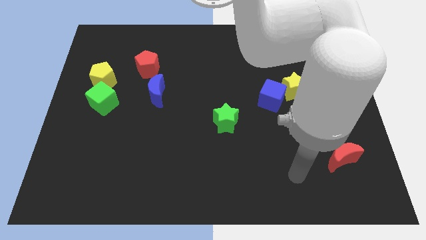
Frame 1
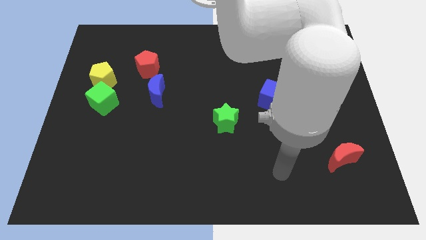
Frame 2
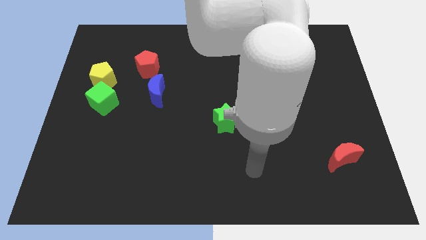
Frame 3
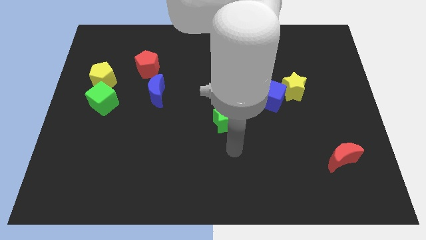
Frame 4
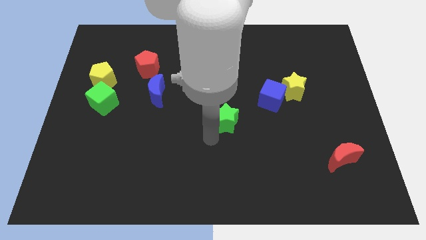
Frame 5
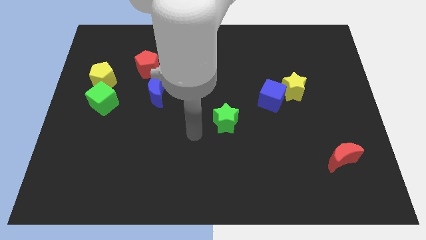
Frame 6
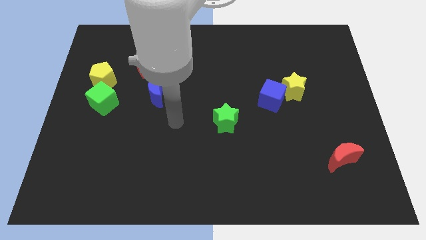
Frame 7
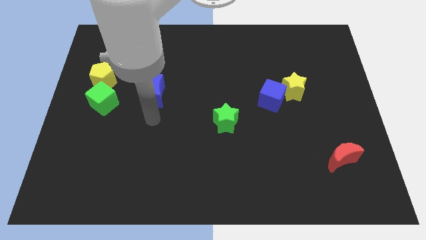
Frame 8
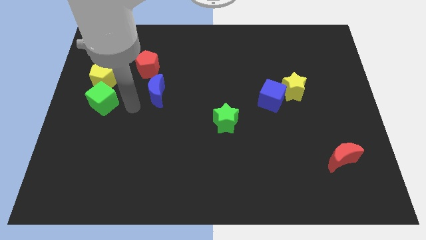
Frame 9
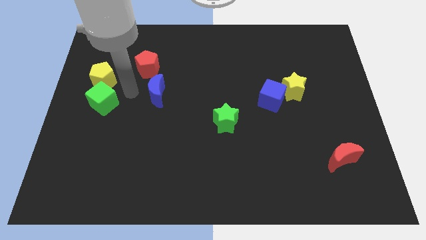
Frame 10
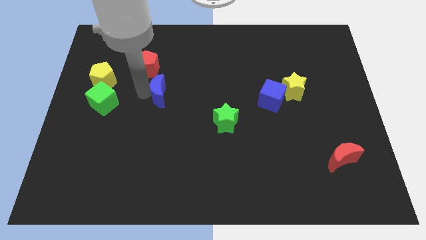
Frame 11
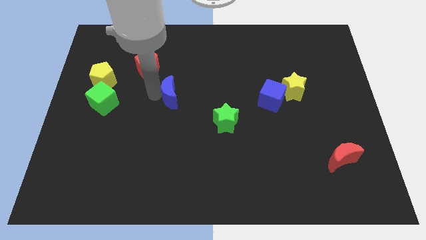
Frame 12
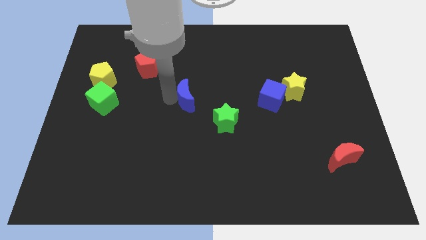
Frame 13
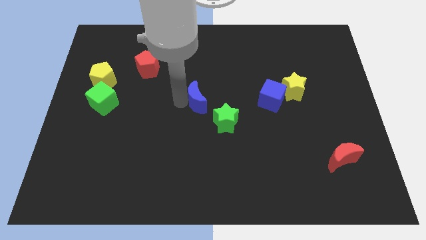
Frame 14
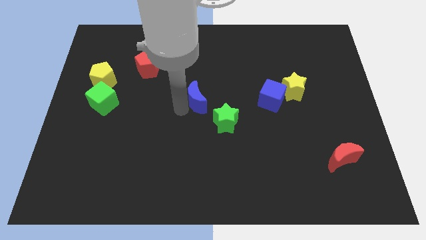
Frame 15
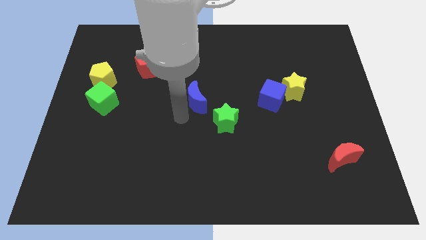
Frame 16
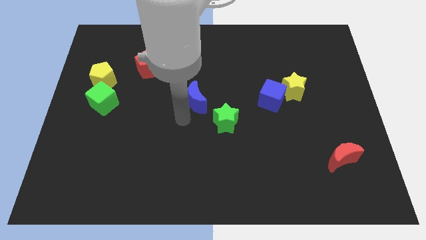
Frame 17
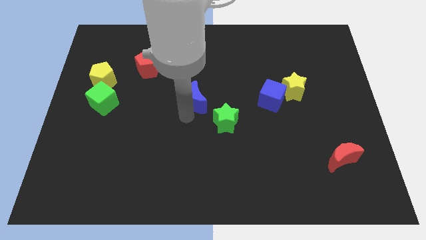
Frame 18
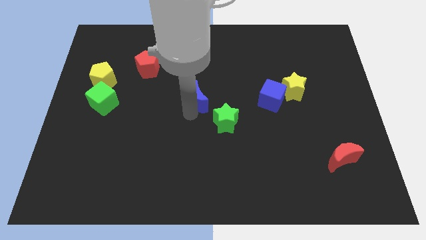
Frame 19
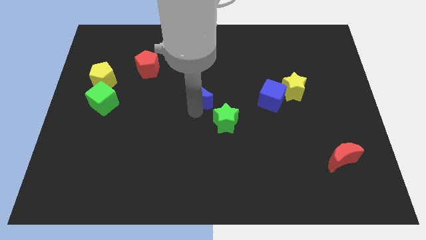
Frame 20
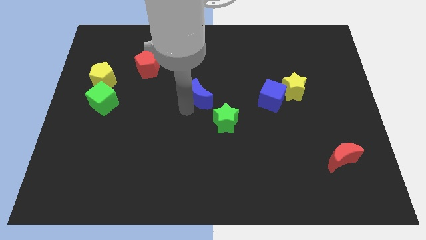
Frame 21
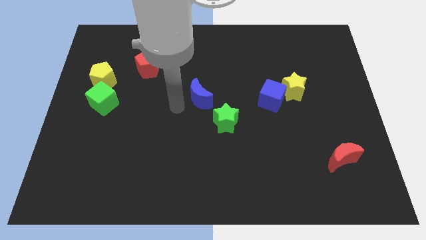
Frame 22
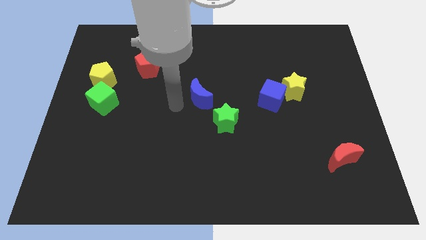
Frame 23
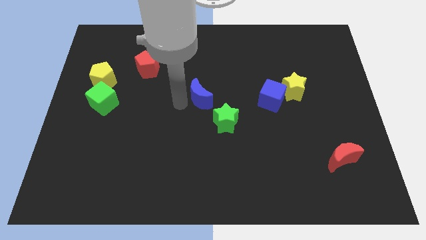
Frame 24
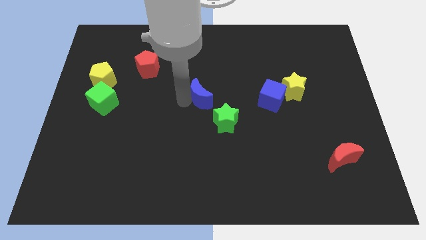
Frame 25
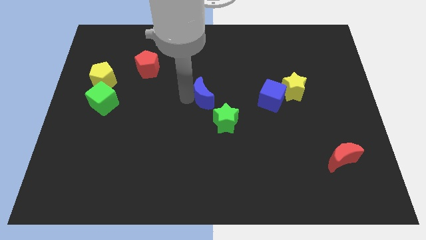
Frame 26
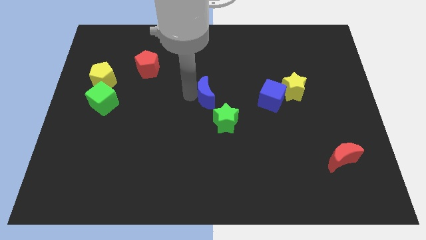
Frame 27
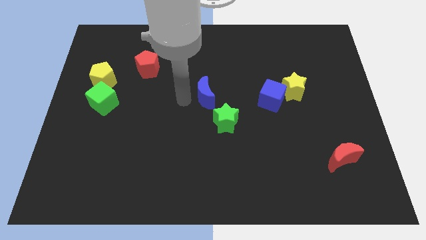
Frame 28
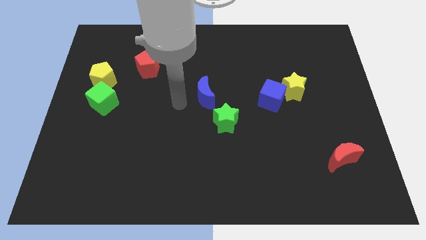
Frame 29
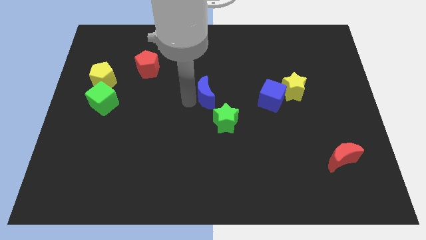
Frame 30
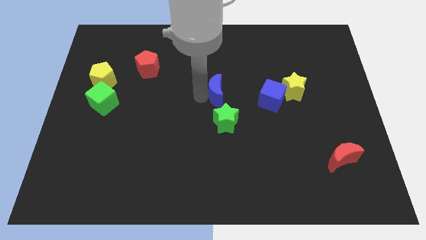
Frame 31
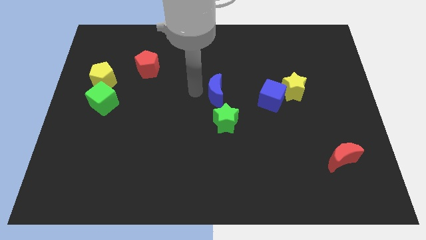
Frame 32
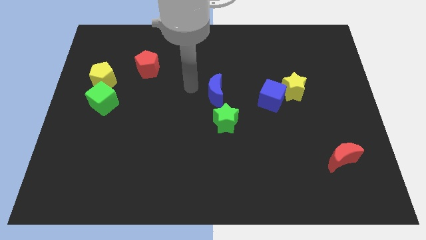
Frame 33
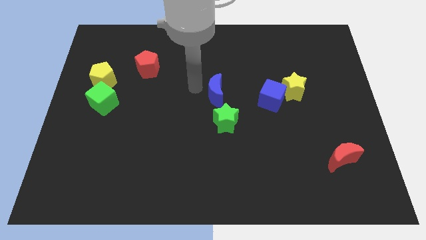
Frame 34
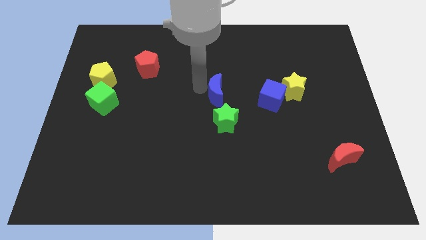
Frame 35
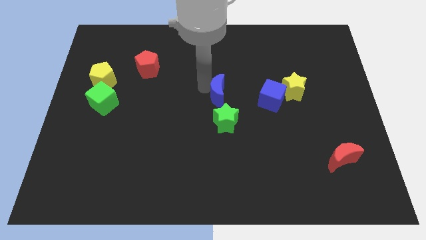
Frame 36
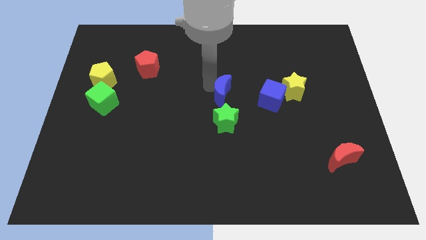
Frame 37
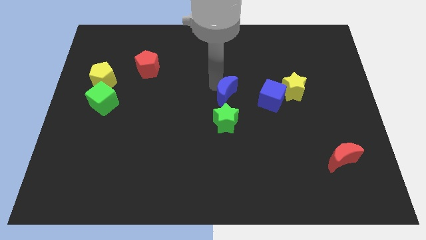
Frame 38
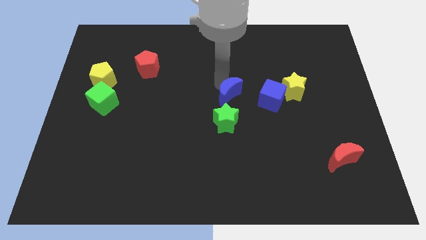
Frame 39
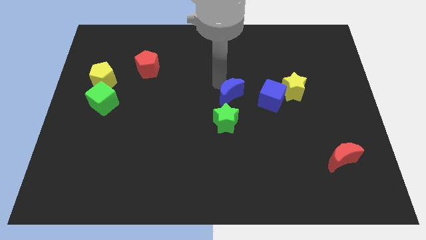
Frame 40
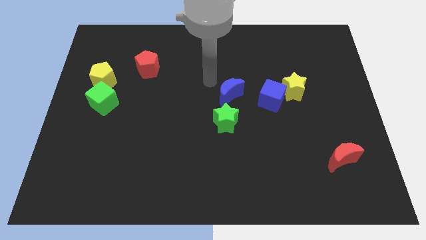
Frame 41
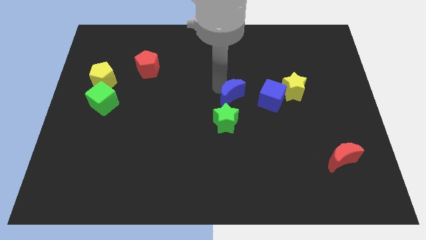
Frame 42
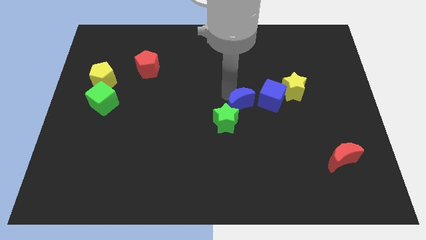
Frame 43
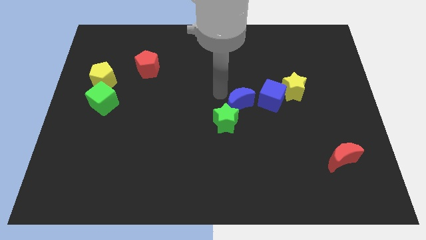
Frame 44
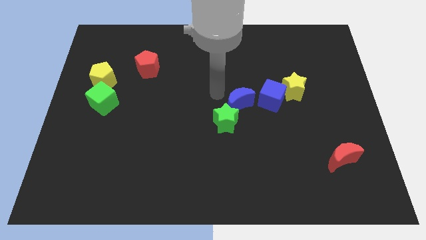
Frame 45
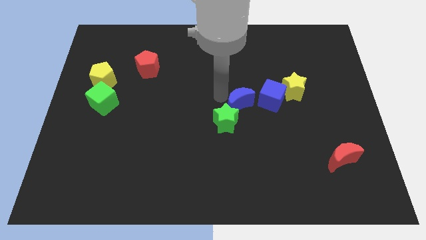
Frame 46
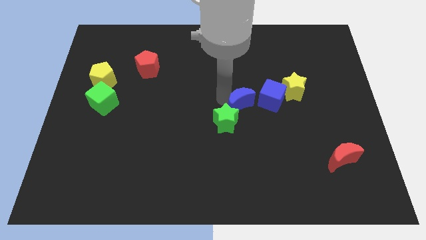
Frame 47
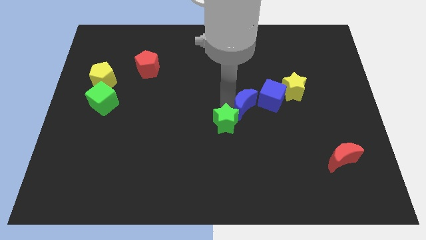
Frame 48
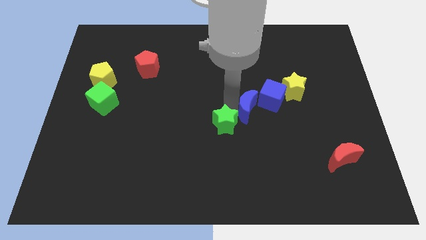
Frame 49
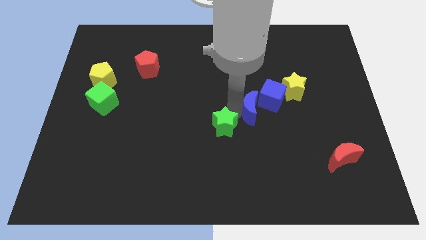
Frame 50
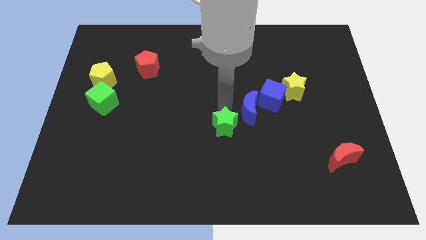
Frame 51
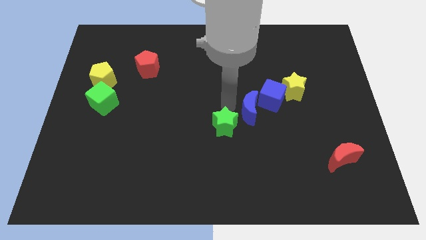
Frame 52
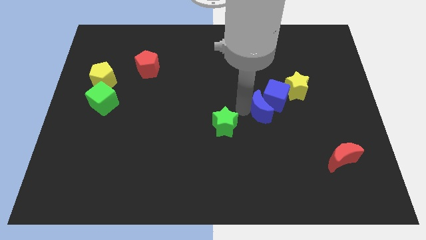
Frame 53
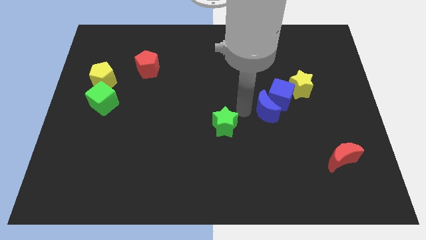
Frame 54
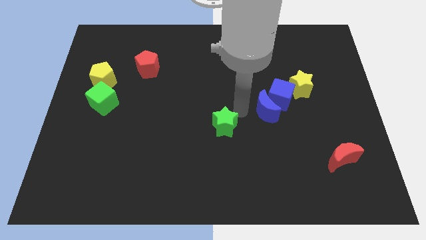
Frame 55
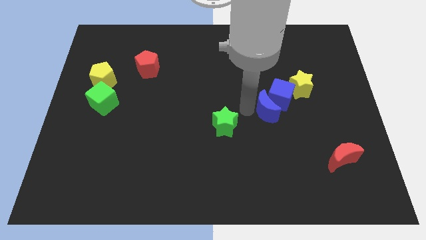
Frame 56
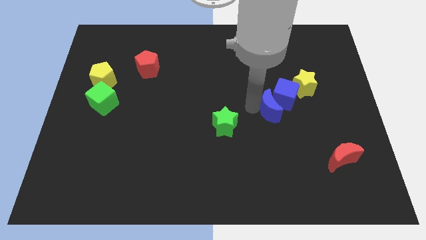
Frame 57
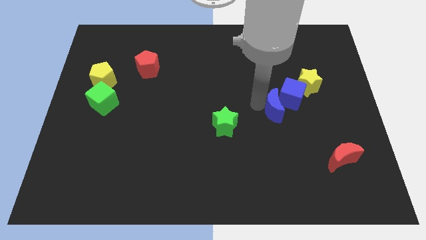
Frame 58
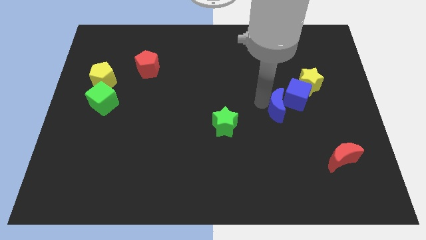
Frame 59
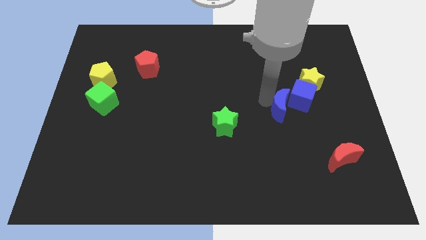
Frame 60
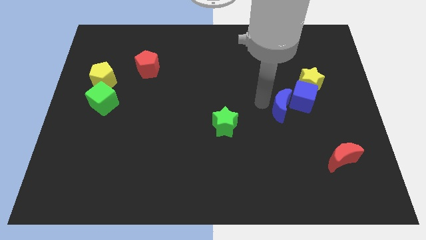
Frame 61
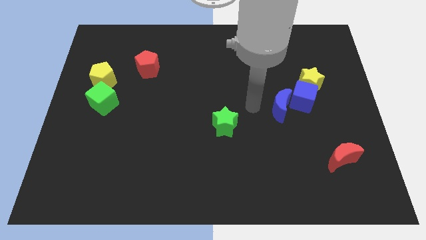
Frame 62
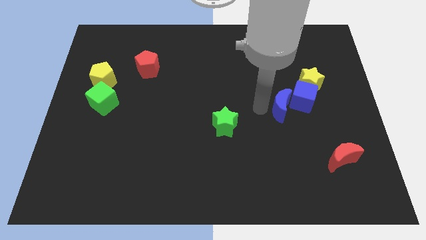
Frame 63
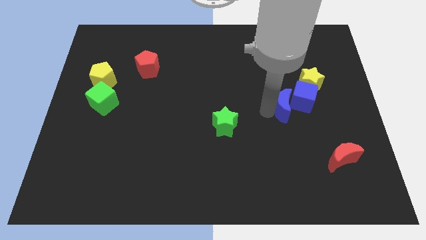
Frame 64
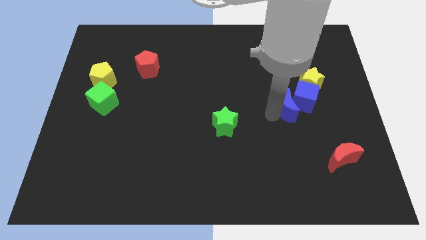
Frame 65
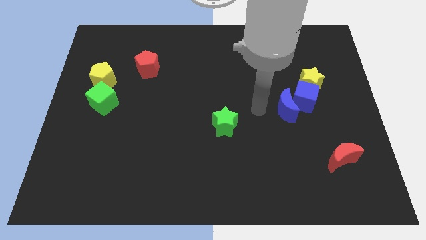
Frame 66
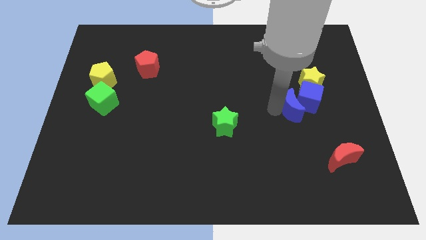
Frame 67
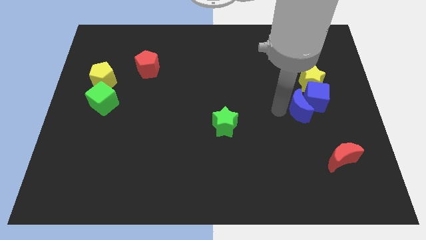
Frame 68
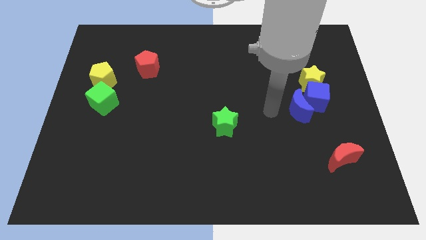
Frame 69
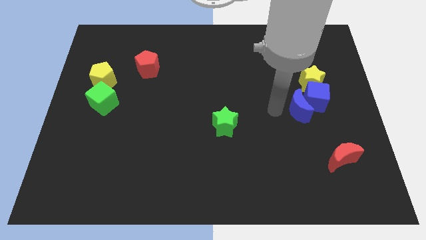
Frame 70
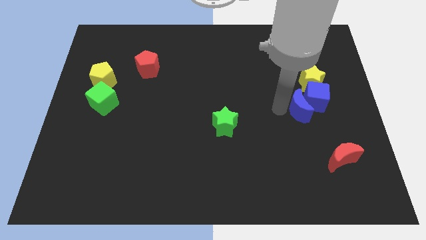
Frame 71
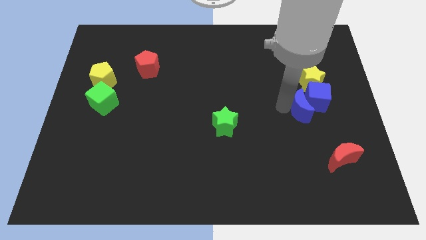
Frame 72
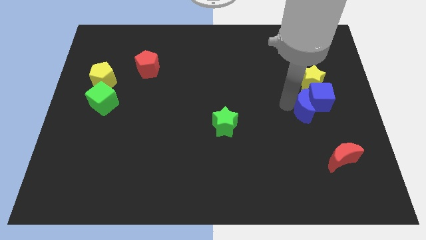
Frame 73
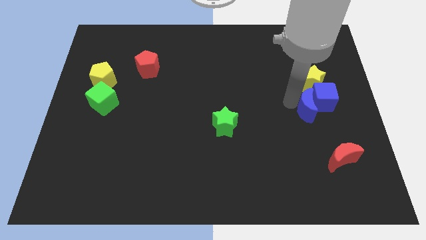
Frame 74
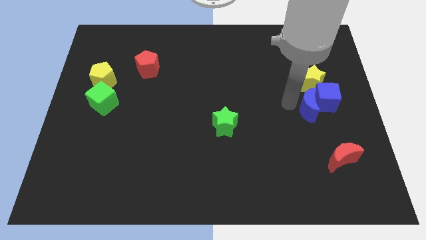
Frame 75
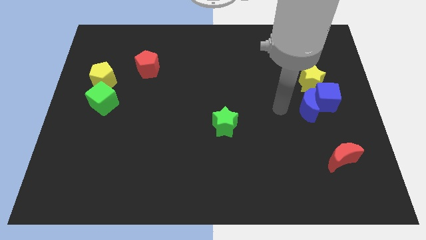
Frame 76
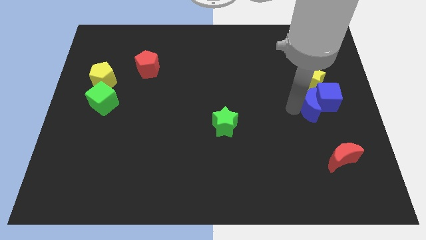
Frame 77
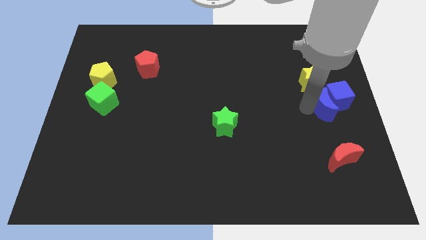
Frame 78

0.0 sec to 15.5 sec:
move the blue moon to the right side
